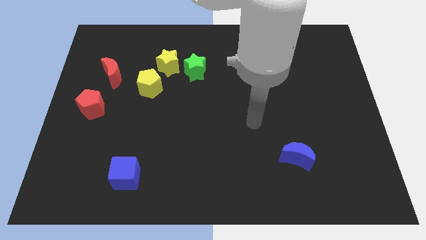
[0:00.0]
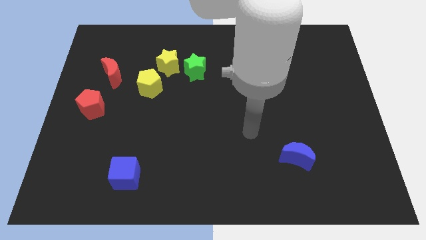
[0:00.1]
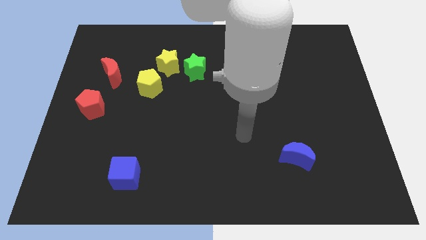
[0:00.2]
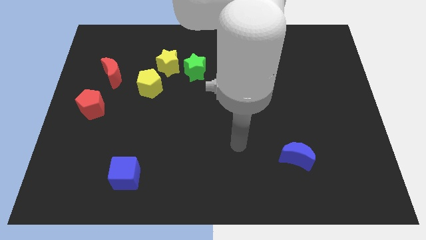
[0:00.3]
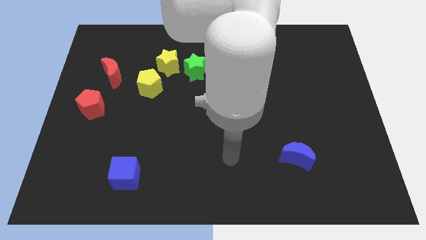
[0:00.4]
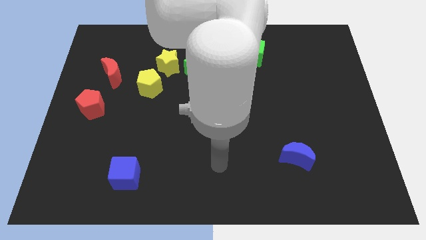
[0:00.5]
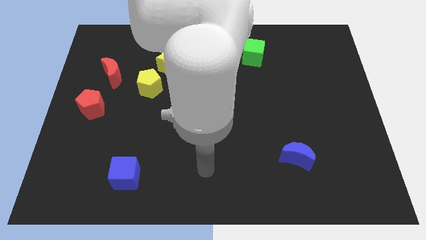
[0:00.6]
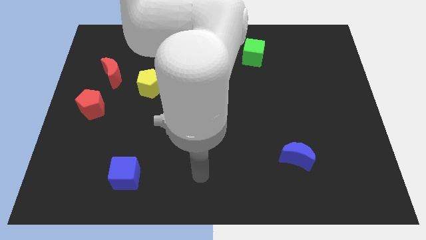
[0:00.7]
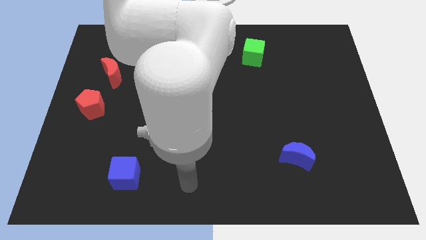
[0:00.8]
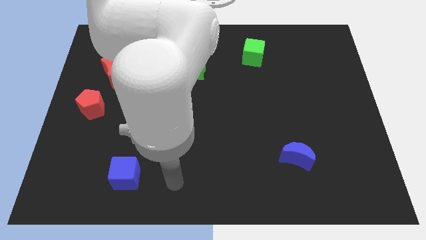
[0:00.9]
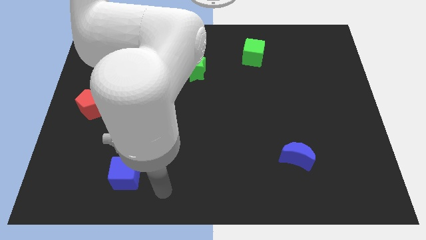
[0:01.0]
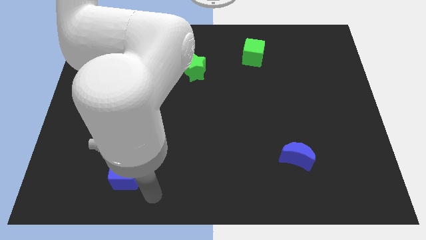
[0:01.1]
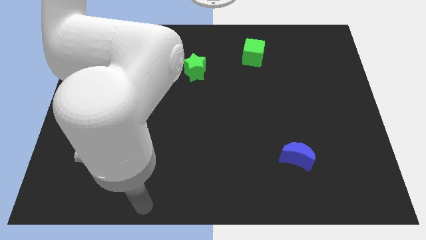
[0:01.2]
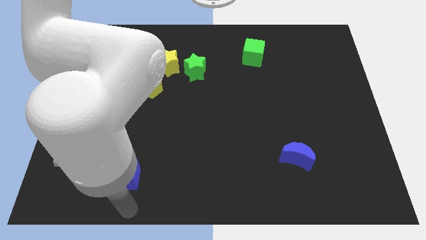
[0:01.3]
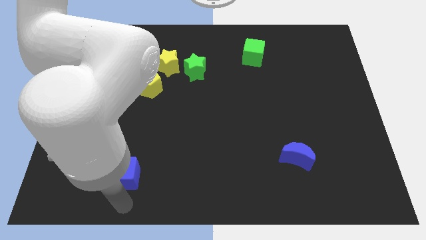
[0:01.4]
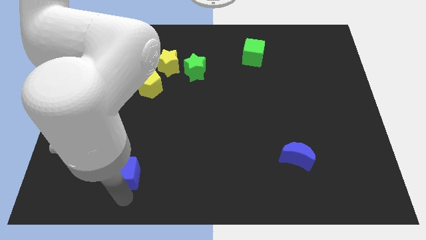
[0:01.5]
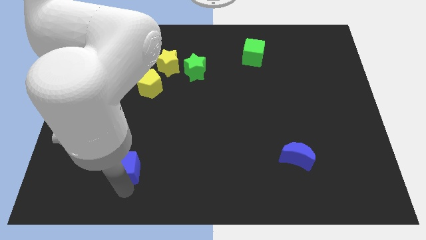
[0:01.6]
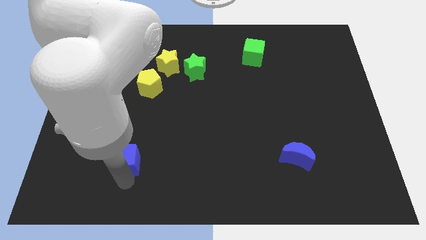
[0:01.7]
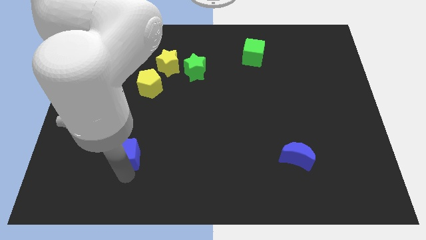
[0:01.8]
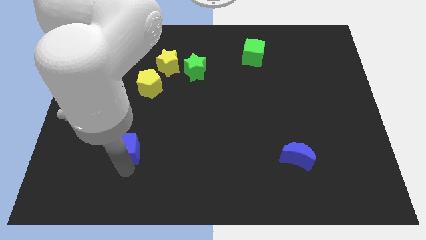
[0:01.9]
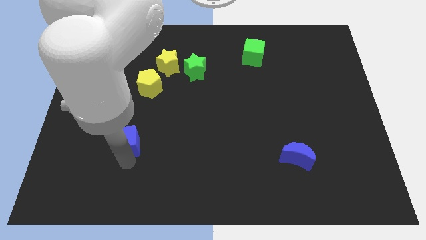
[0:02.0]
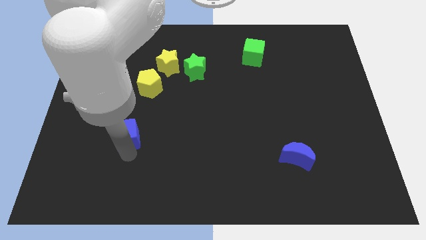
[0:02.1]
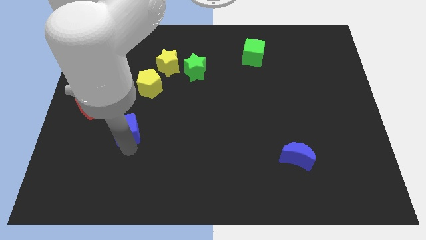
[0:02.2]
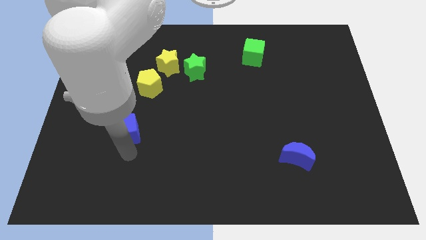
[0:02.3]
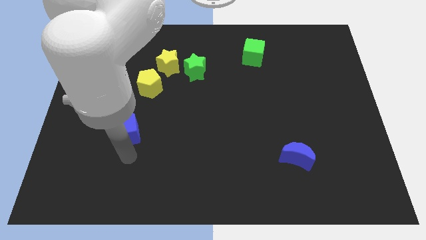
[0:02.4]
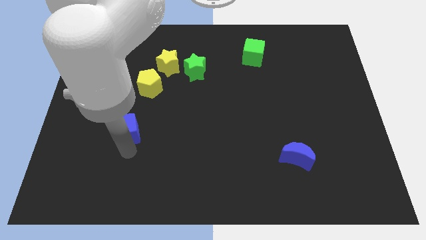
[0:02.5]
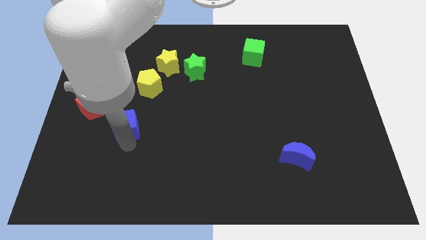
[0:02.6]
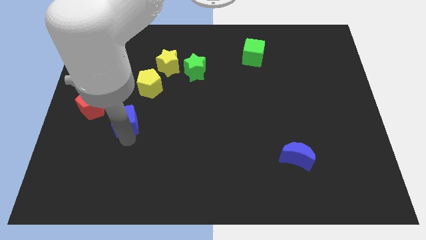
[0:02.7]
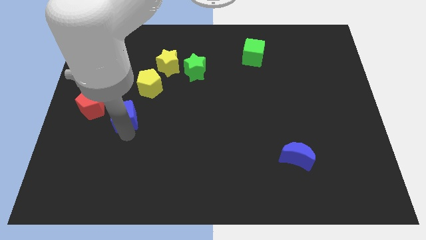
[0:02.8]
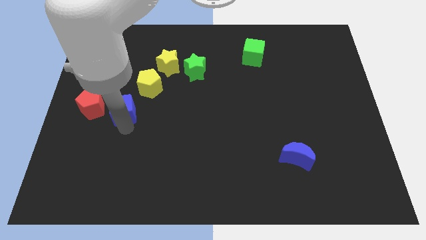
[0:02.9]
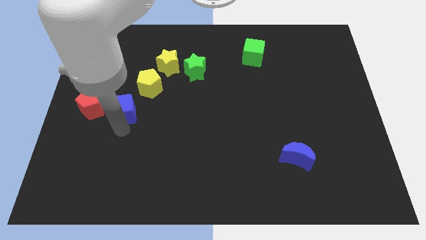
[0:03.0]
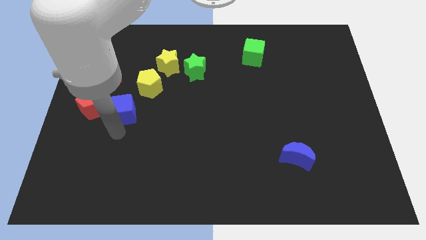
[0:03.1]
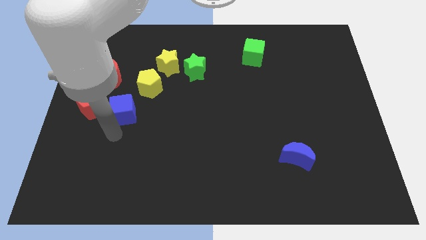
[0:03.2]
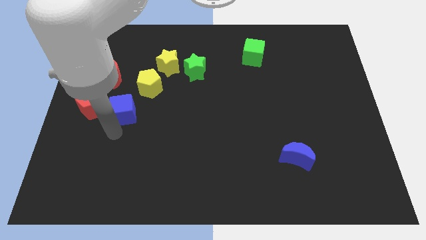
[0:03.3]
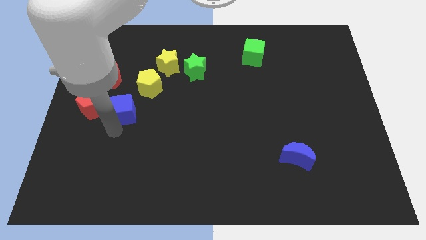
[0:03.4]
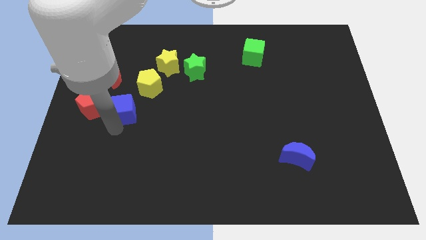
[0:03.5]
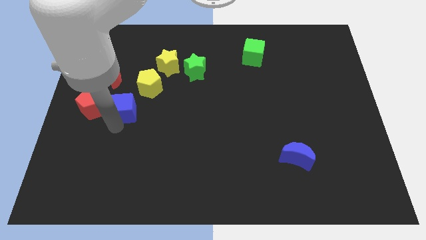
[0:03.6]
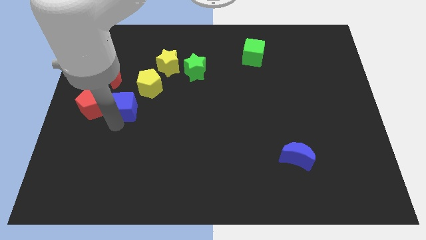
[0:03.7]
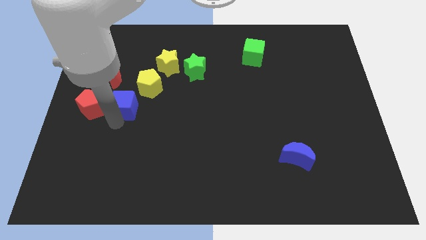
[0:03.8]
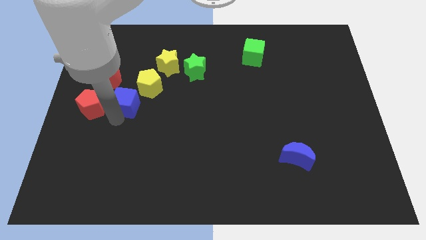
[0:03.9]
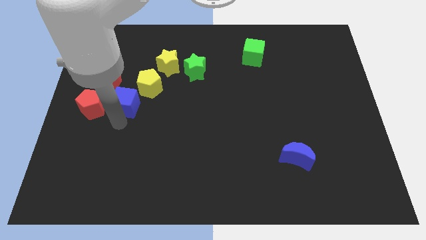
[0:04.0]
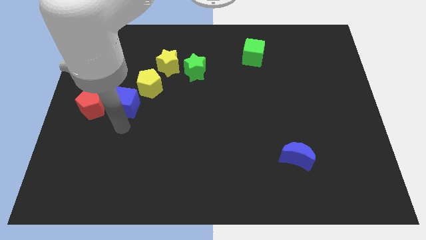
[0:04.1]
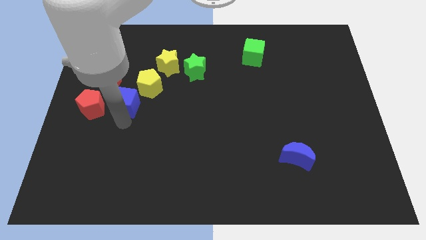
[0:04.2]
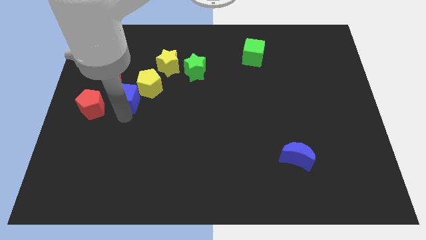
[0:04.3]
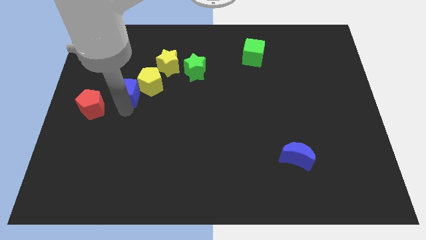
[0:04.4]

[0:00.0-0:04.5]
move the blue cube up

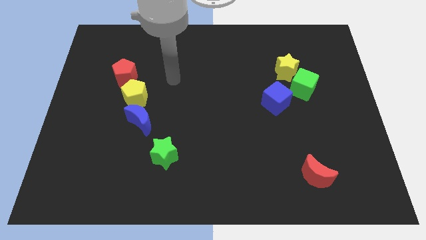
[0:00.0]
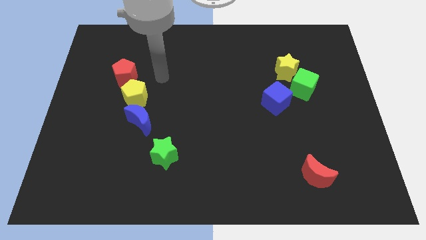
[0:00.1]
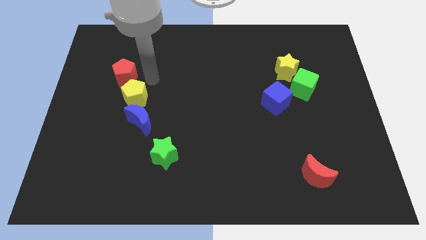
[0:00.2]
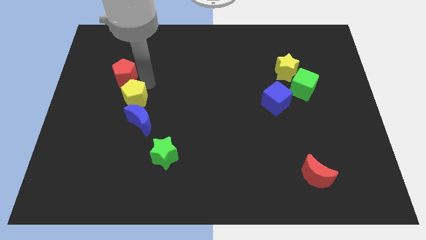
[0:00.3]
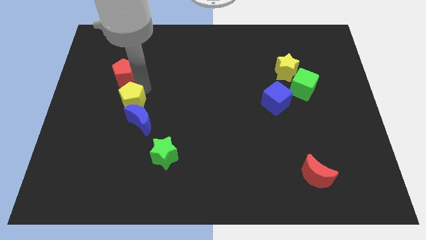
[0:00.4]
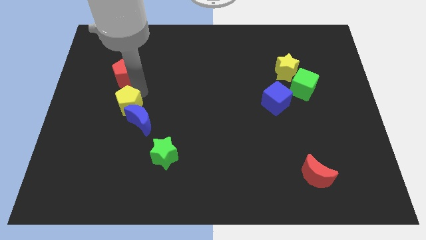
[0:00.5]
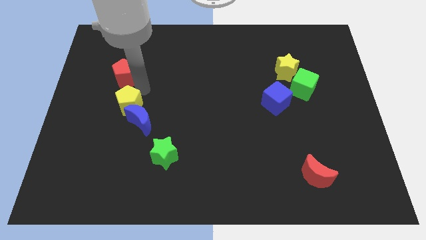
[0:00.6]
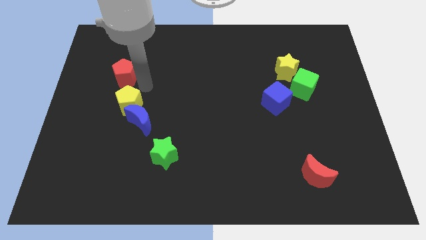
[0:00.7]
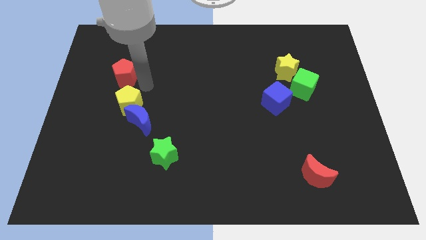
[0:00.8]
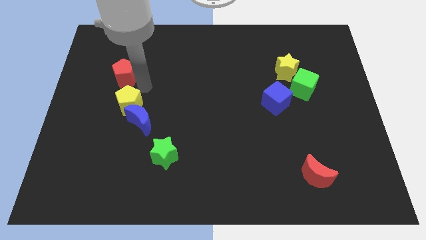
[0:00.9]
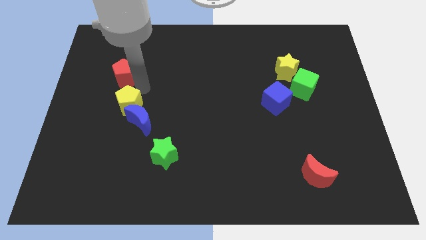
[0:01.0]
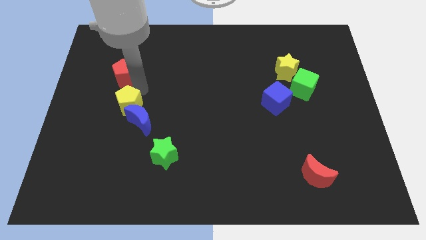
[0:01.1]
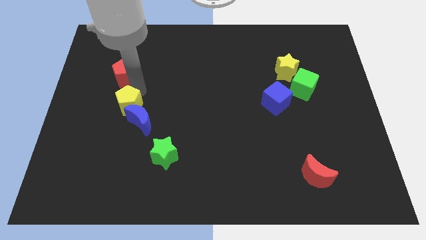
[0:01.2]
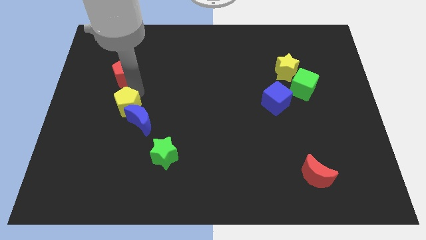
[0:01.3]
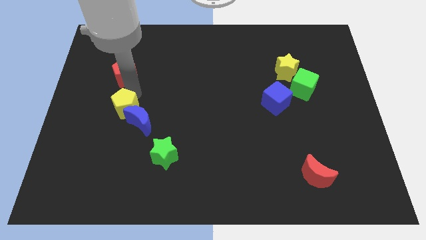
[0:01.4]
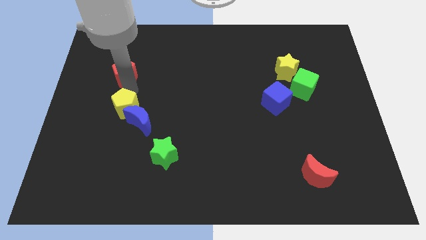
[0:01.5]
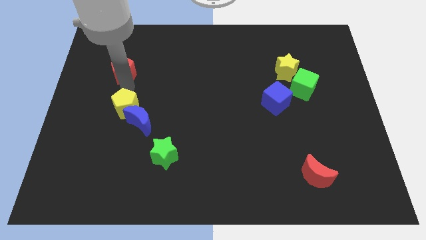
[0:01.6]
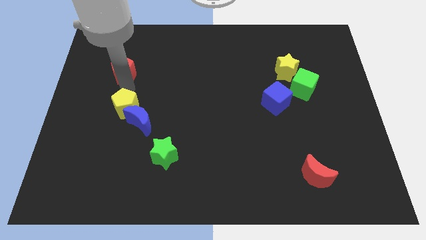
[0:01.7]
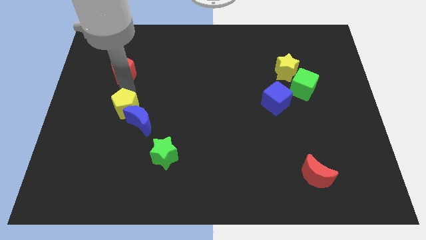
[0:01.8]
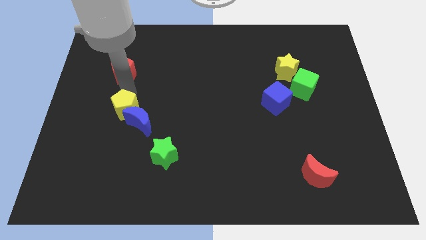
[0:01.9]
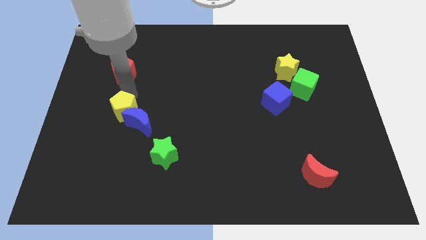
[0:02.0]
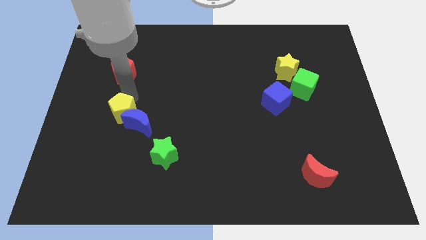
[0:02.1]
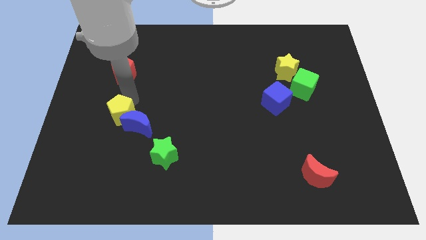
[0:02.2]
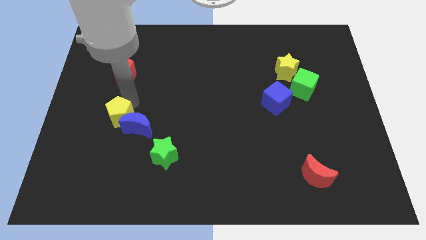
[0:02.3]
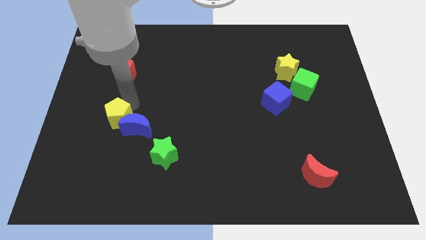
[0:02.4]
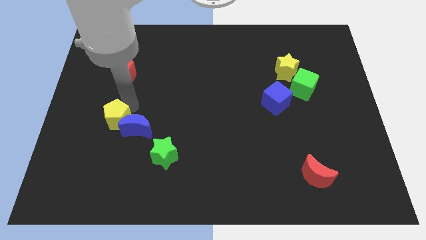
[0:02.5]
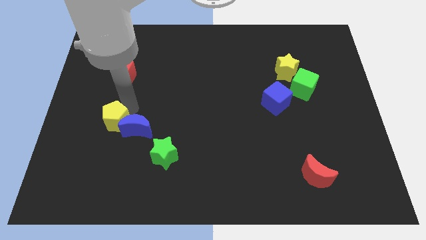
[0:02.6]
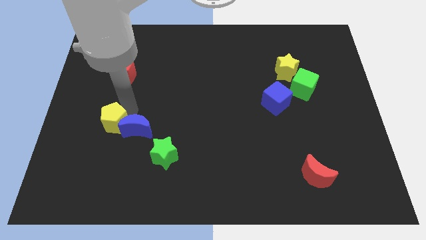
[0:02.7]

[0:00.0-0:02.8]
move the yellow pentagon down a little

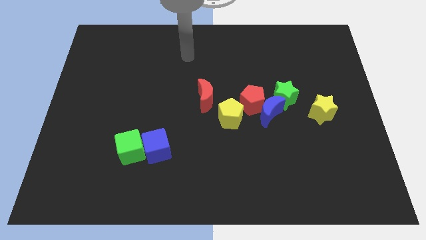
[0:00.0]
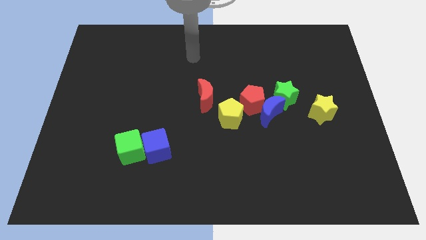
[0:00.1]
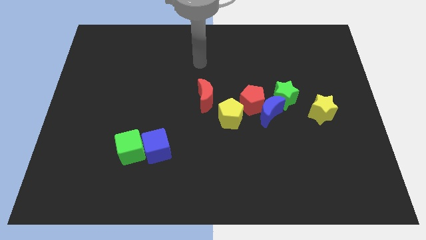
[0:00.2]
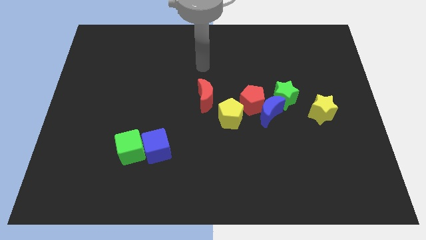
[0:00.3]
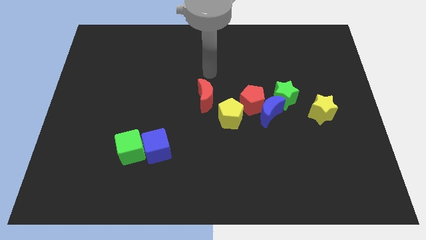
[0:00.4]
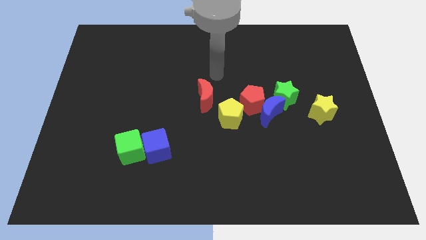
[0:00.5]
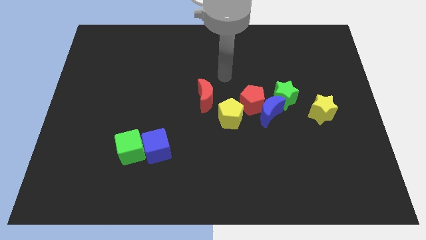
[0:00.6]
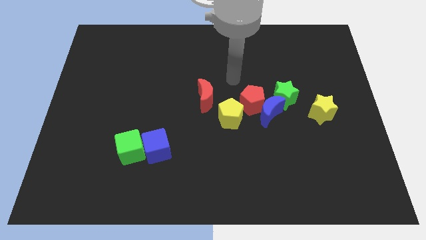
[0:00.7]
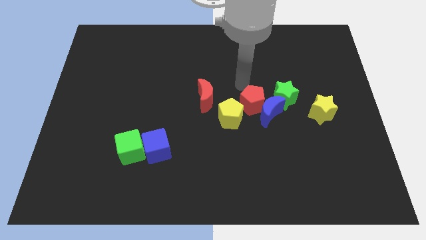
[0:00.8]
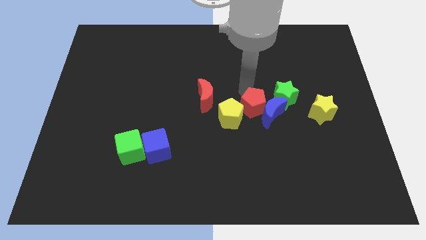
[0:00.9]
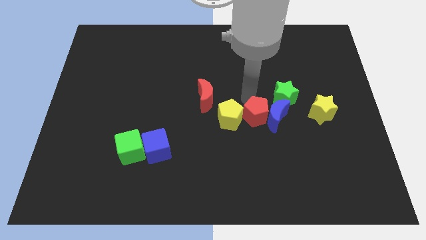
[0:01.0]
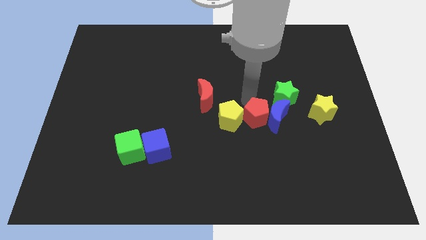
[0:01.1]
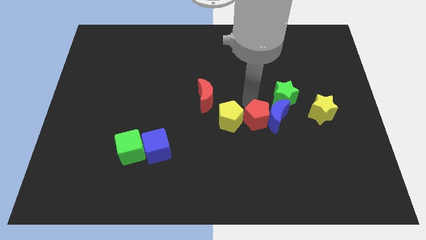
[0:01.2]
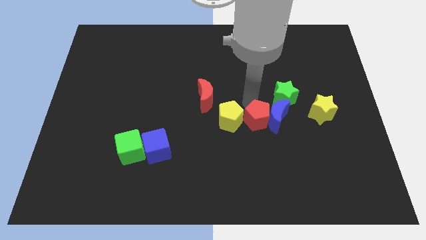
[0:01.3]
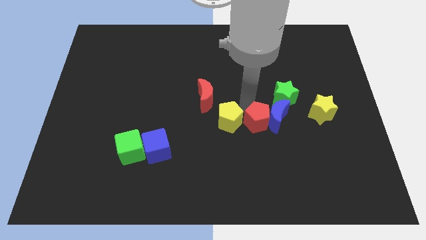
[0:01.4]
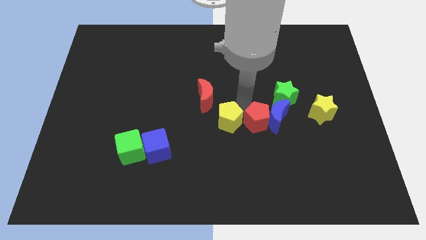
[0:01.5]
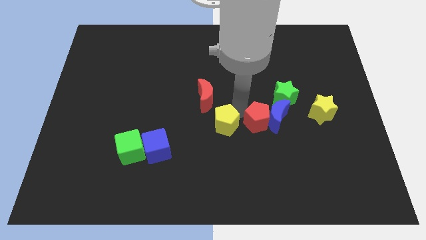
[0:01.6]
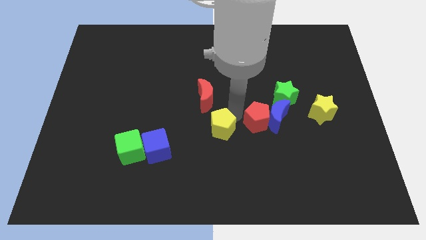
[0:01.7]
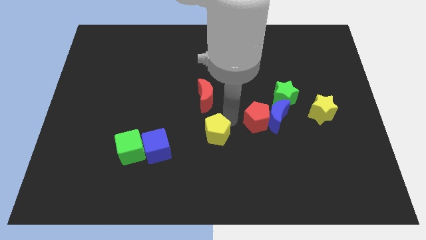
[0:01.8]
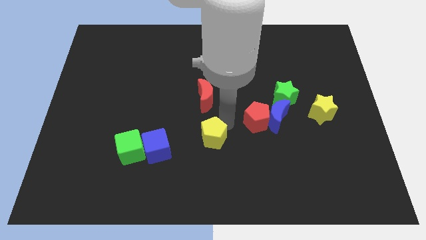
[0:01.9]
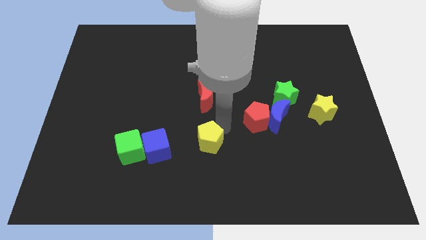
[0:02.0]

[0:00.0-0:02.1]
slide the yellow pentagon diagonally down and to the left somewhat
